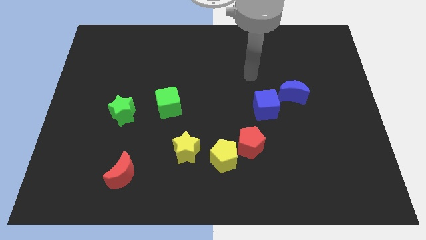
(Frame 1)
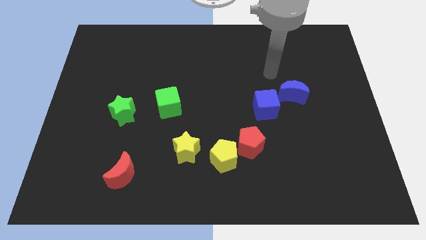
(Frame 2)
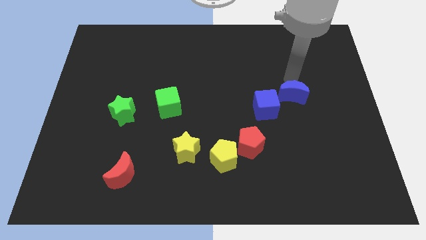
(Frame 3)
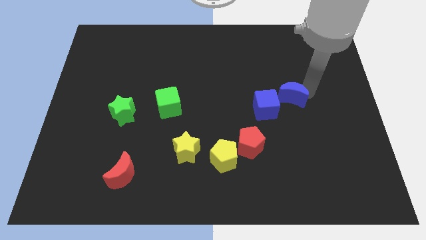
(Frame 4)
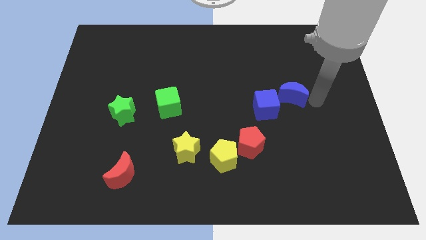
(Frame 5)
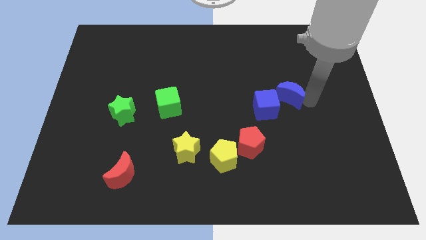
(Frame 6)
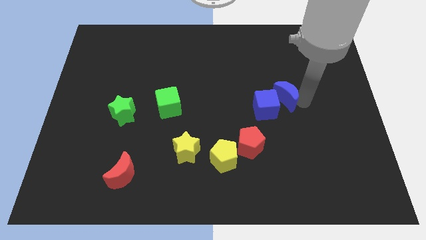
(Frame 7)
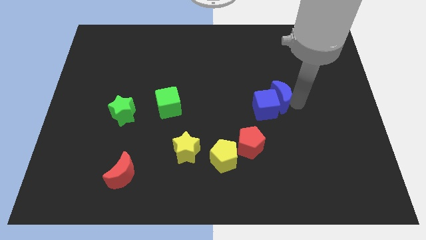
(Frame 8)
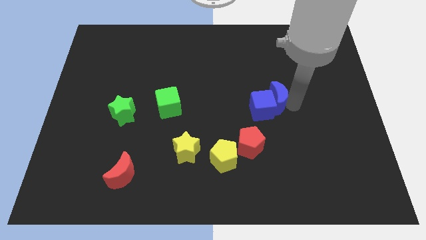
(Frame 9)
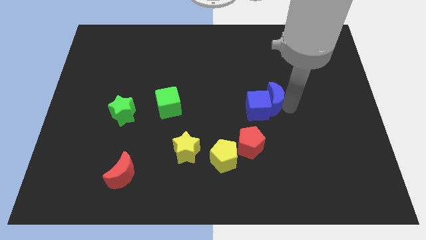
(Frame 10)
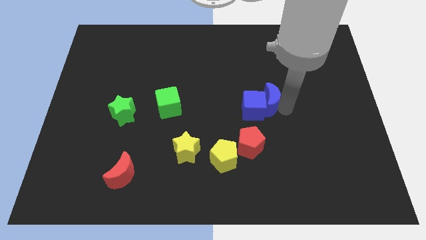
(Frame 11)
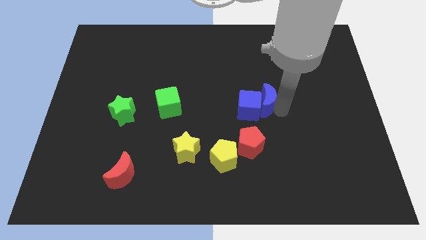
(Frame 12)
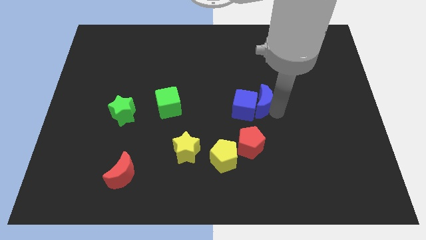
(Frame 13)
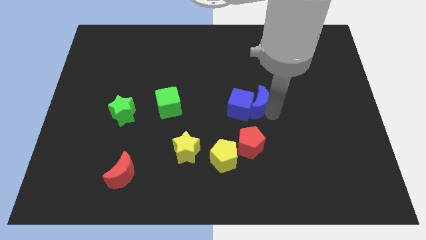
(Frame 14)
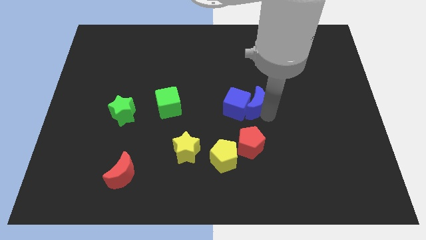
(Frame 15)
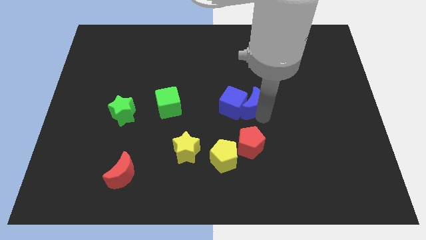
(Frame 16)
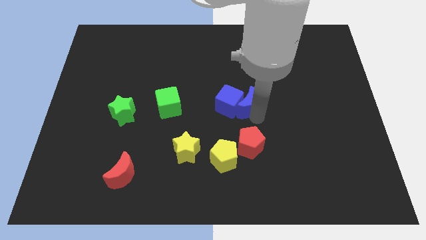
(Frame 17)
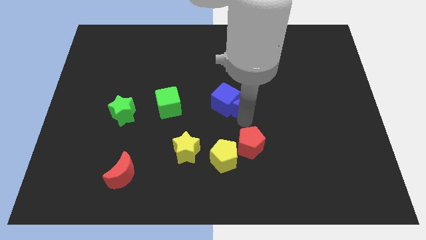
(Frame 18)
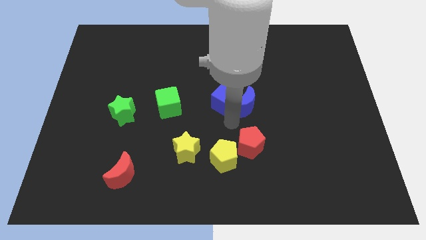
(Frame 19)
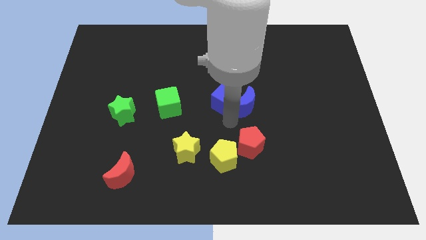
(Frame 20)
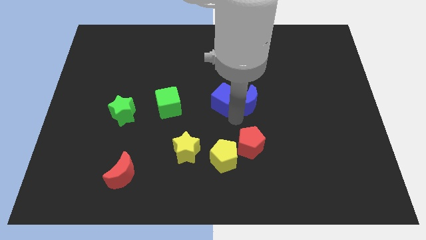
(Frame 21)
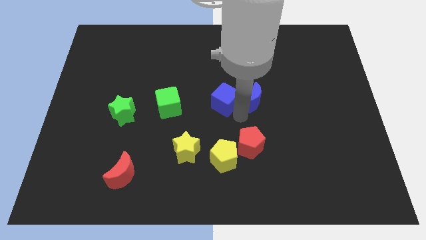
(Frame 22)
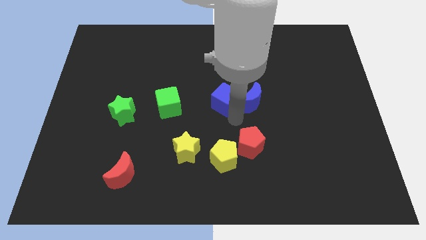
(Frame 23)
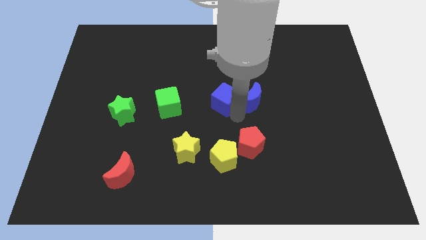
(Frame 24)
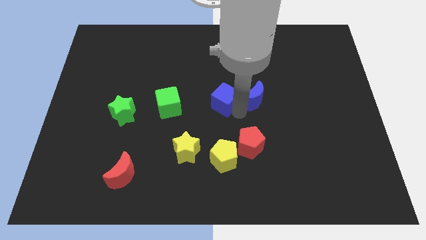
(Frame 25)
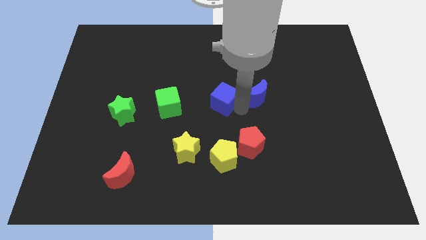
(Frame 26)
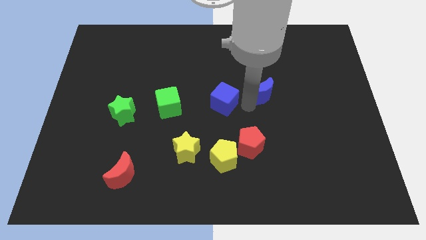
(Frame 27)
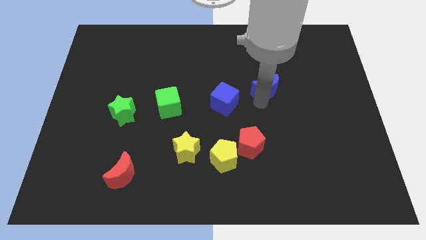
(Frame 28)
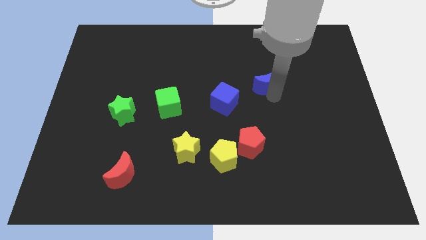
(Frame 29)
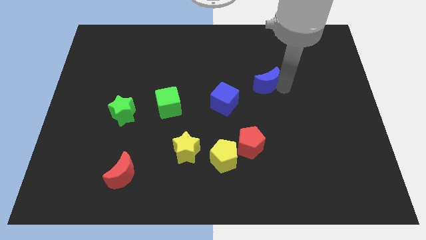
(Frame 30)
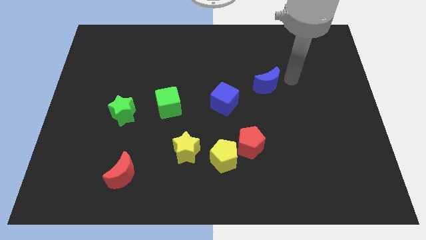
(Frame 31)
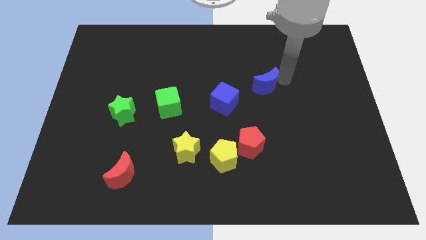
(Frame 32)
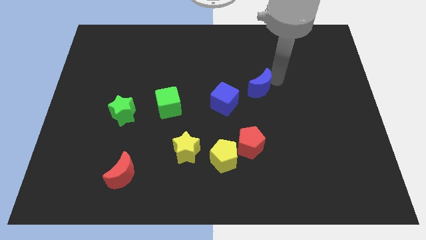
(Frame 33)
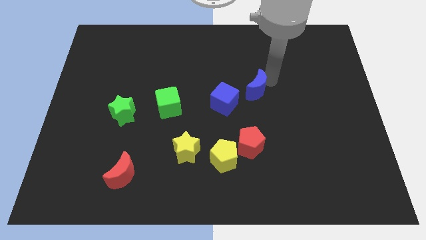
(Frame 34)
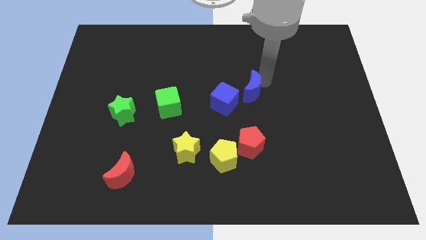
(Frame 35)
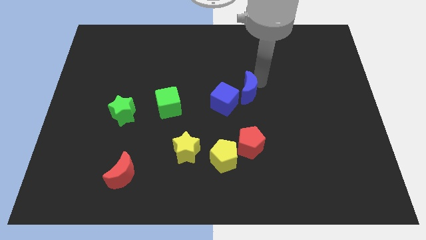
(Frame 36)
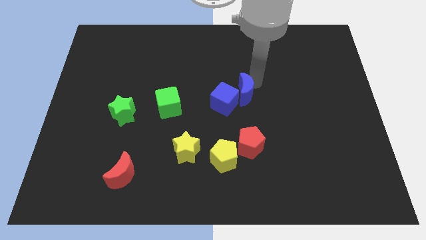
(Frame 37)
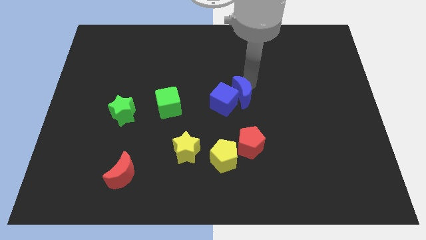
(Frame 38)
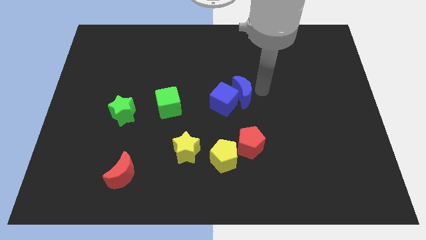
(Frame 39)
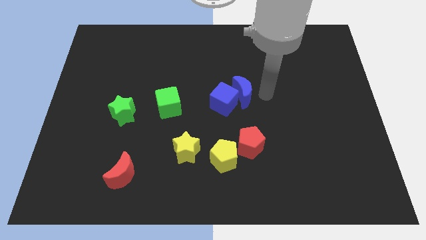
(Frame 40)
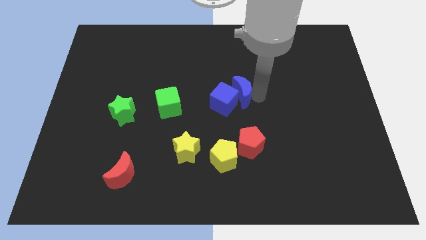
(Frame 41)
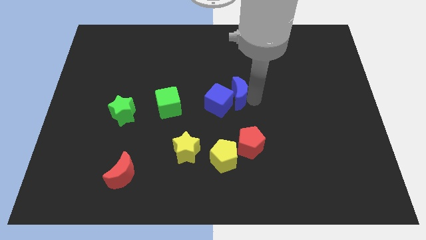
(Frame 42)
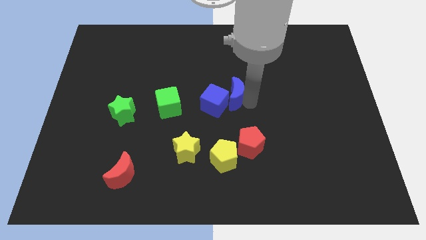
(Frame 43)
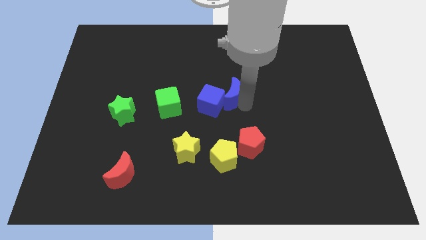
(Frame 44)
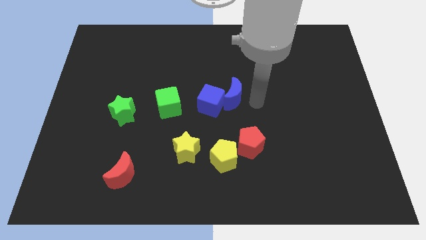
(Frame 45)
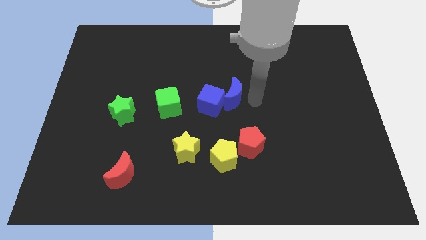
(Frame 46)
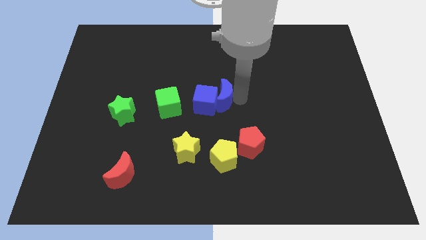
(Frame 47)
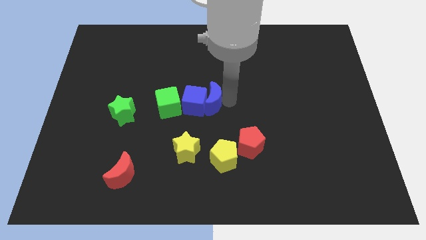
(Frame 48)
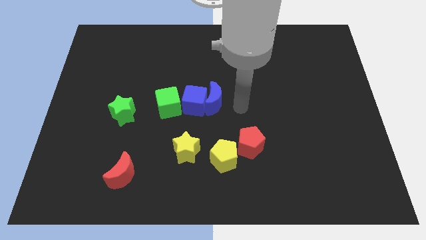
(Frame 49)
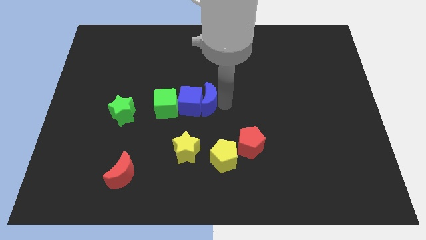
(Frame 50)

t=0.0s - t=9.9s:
slide the blue moon to the left

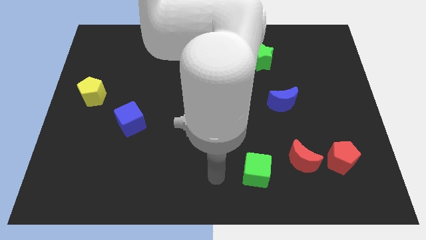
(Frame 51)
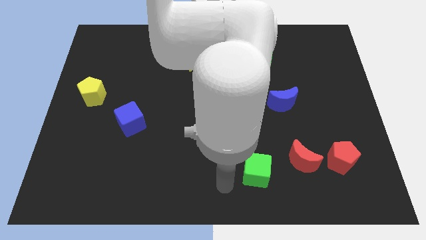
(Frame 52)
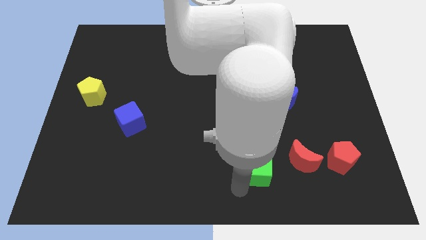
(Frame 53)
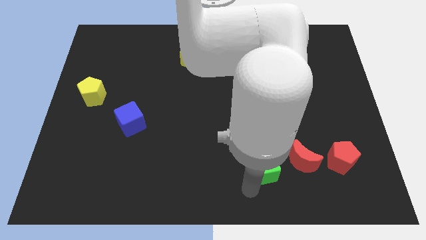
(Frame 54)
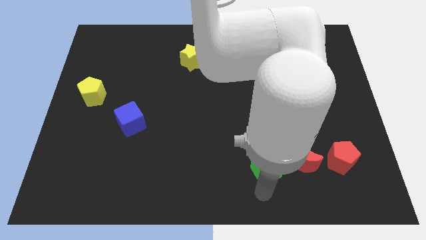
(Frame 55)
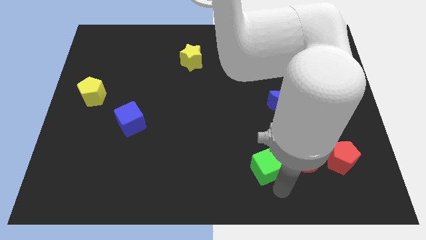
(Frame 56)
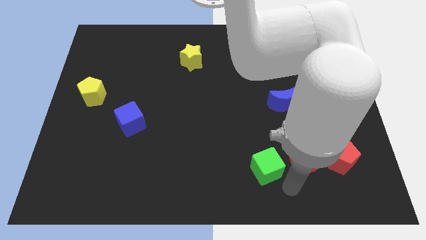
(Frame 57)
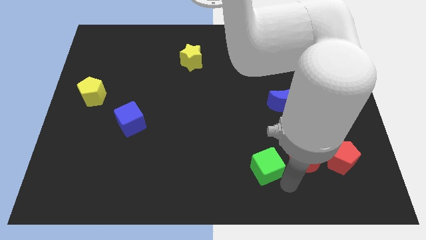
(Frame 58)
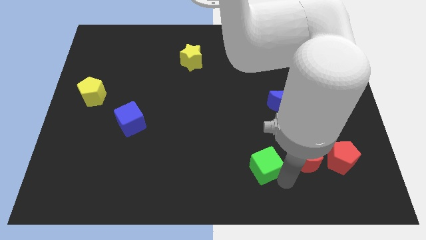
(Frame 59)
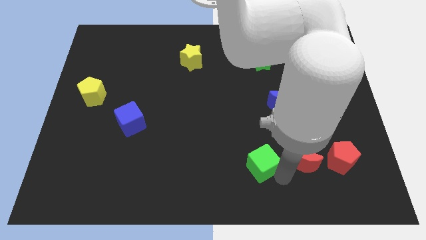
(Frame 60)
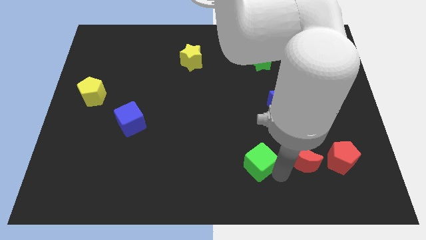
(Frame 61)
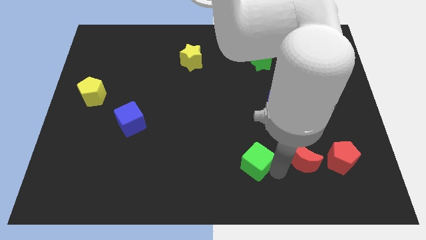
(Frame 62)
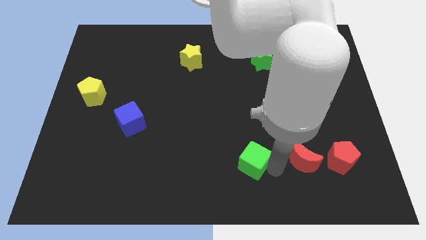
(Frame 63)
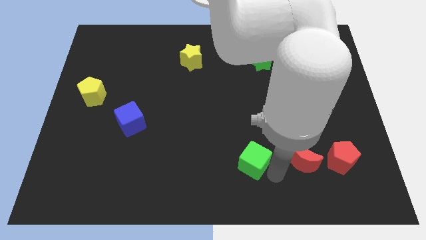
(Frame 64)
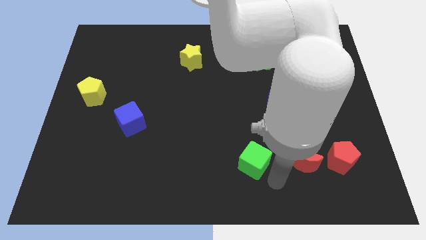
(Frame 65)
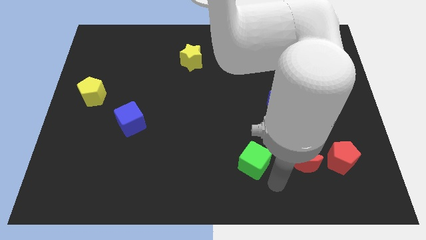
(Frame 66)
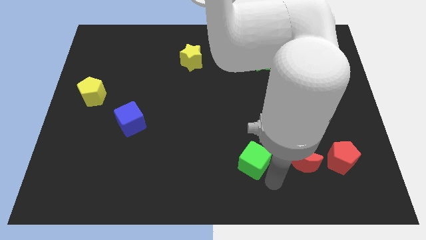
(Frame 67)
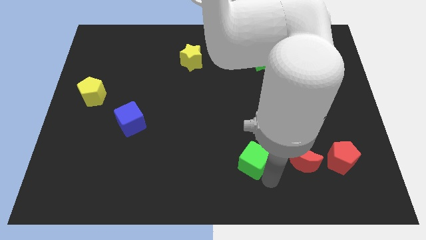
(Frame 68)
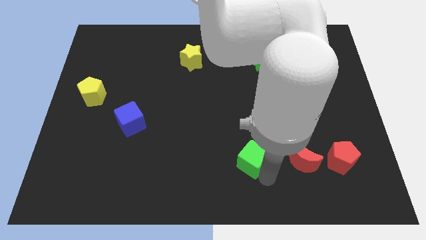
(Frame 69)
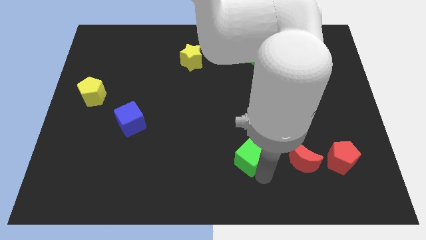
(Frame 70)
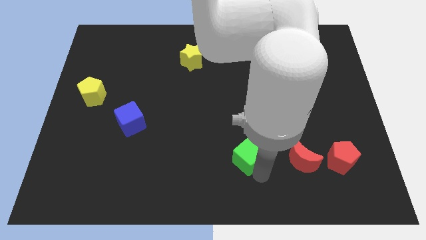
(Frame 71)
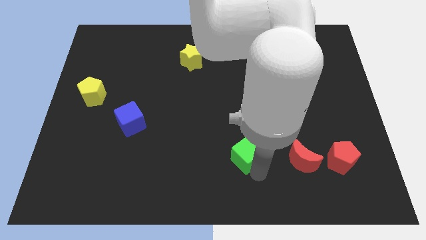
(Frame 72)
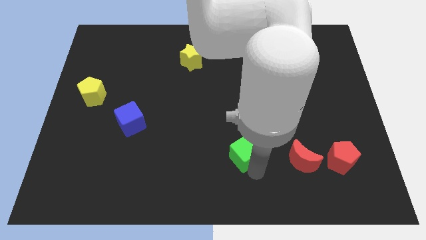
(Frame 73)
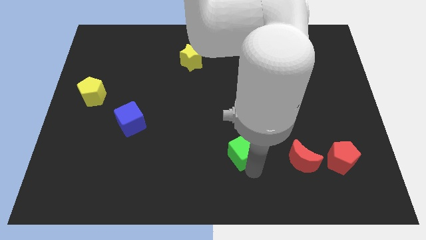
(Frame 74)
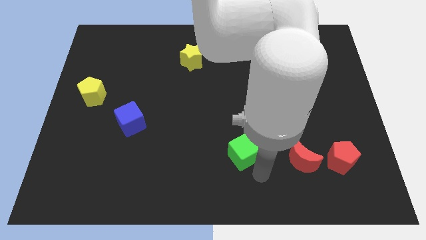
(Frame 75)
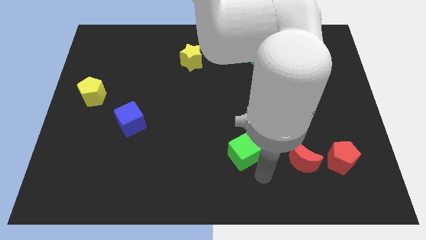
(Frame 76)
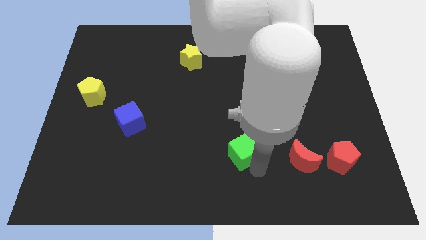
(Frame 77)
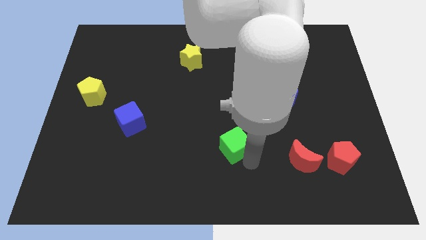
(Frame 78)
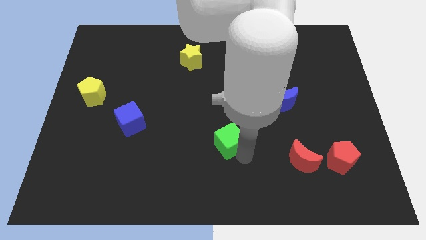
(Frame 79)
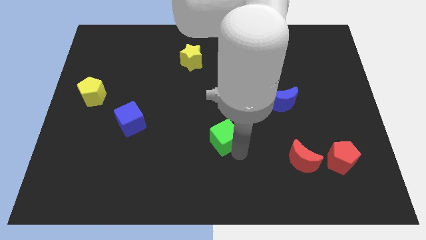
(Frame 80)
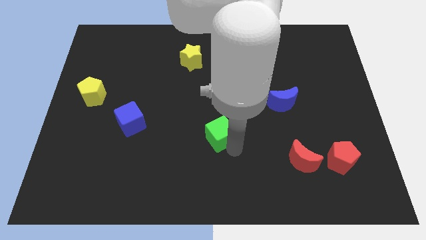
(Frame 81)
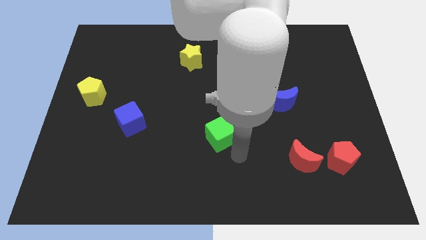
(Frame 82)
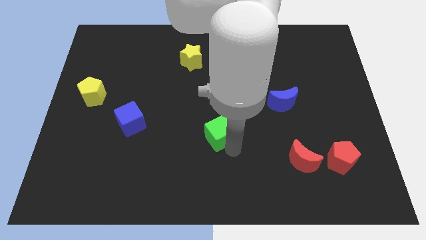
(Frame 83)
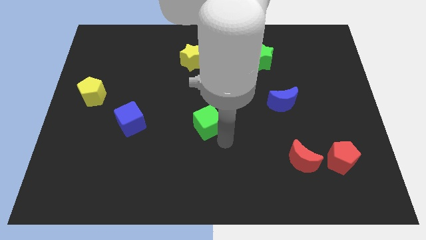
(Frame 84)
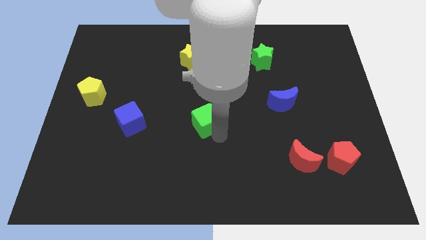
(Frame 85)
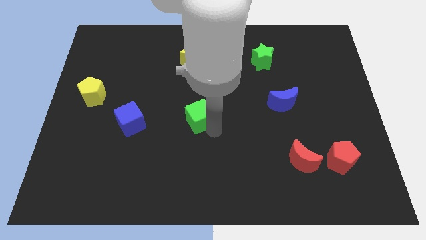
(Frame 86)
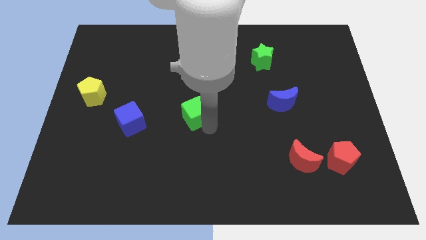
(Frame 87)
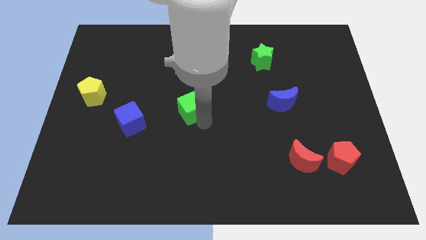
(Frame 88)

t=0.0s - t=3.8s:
move the green cube upwards and to the left
